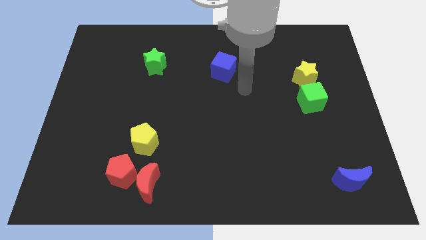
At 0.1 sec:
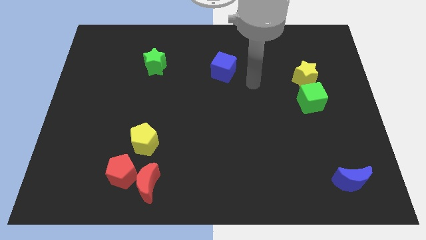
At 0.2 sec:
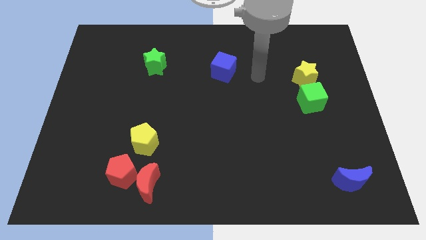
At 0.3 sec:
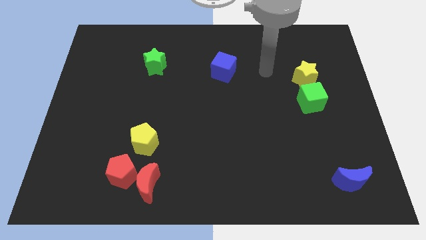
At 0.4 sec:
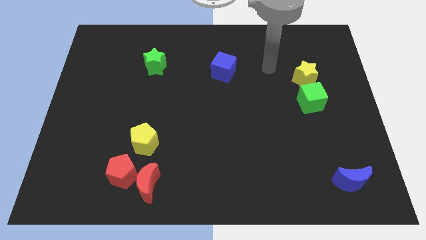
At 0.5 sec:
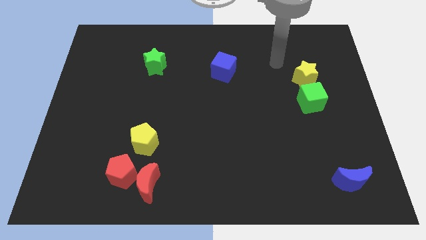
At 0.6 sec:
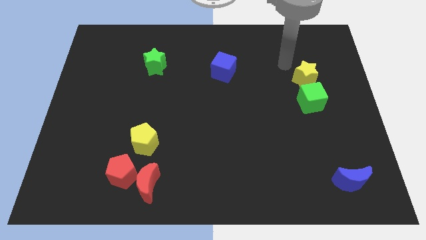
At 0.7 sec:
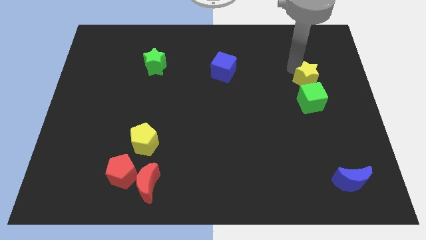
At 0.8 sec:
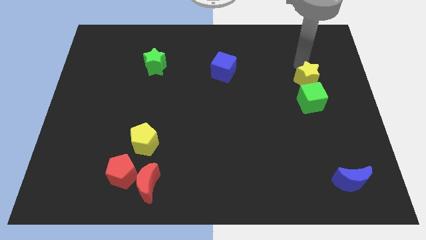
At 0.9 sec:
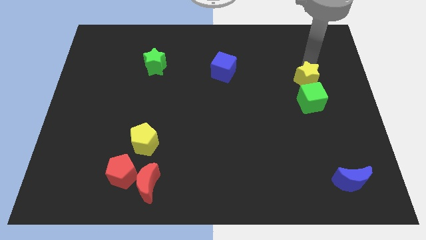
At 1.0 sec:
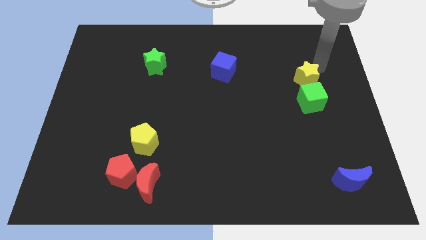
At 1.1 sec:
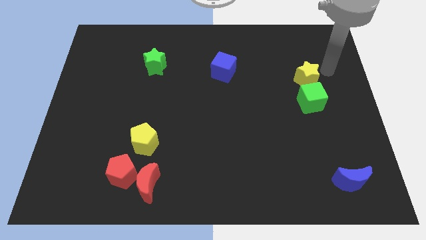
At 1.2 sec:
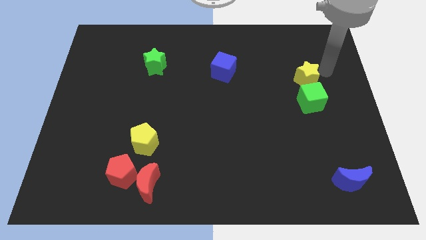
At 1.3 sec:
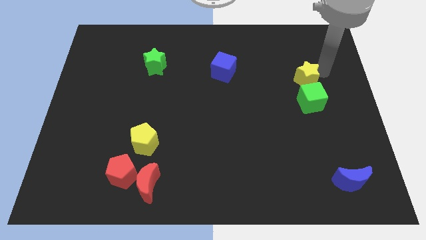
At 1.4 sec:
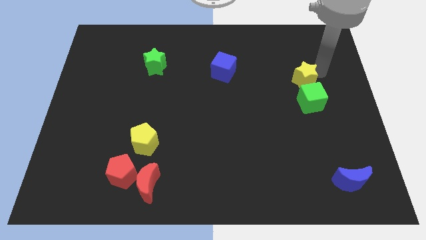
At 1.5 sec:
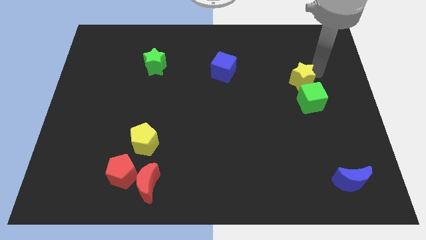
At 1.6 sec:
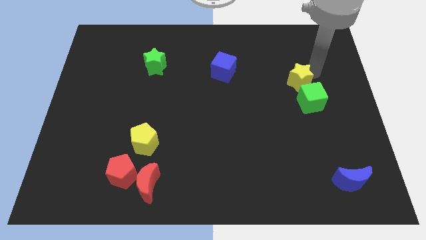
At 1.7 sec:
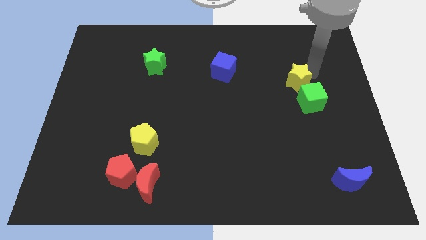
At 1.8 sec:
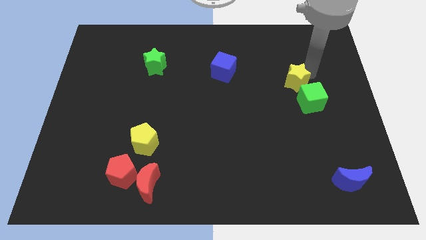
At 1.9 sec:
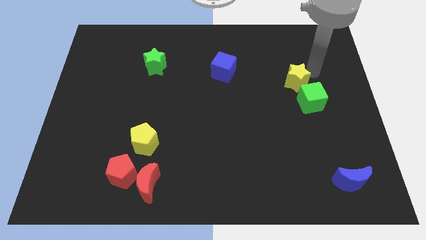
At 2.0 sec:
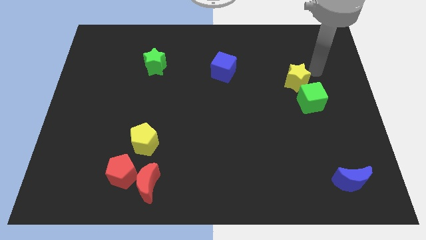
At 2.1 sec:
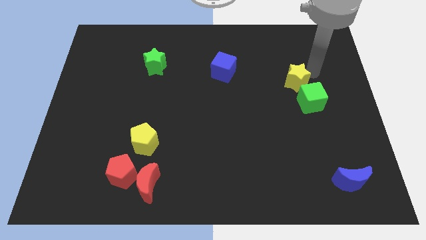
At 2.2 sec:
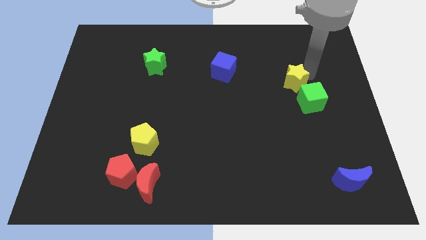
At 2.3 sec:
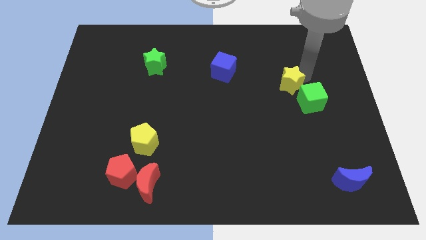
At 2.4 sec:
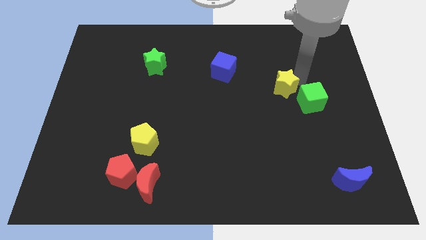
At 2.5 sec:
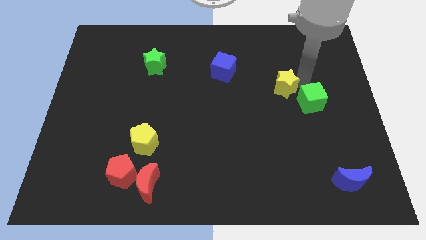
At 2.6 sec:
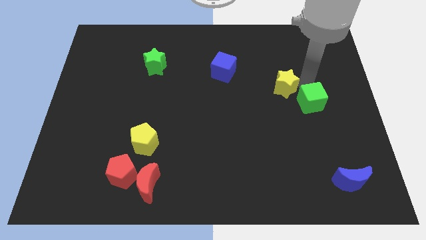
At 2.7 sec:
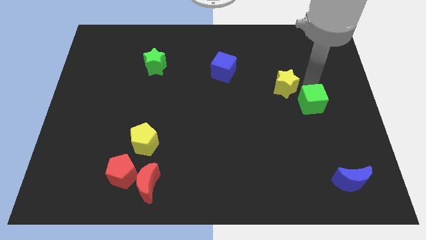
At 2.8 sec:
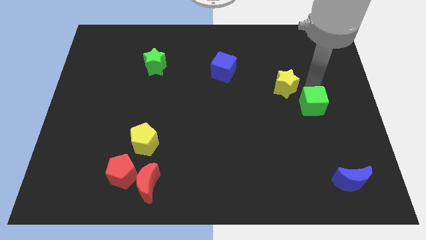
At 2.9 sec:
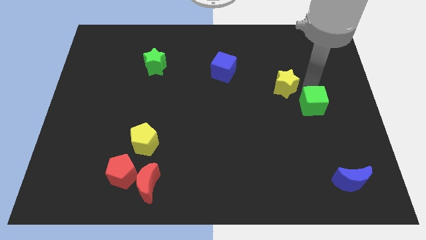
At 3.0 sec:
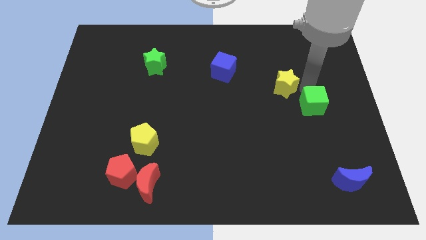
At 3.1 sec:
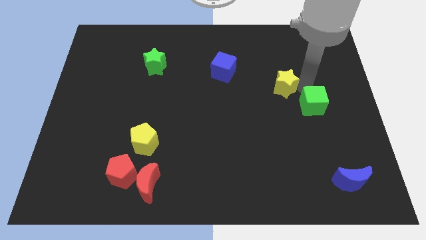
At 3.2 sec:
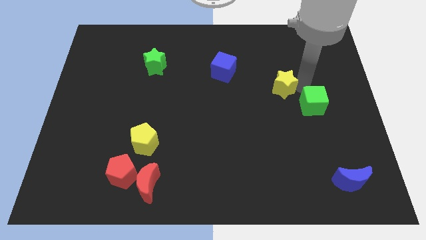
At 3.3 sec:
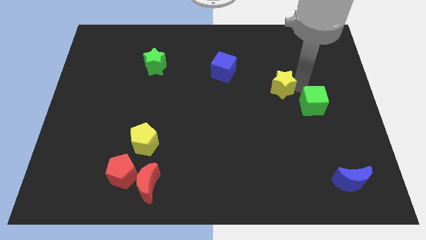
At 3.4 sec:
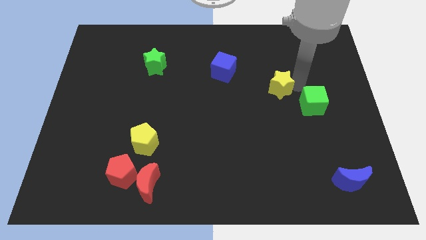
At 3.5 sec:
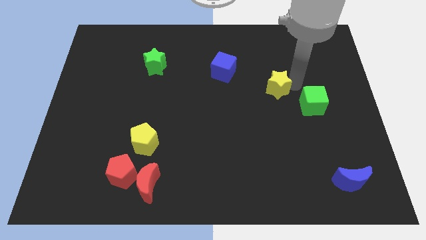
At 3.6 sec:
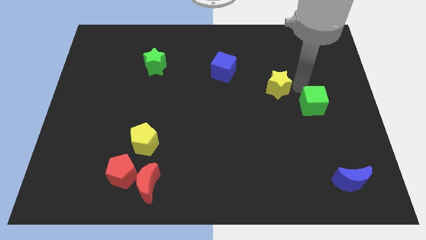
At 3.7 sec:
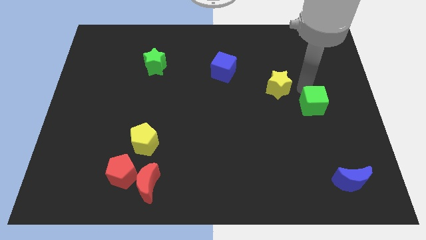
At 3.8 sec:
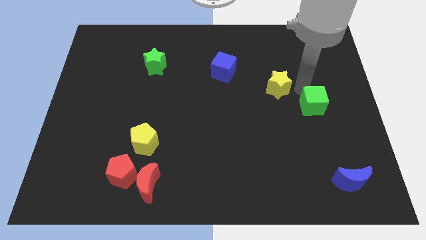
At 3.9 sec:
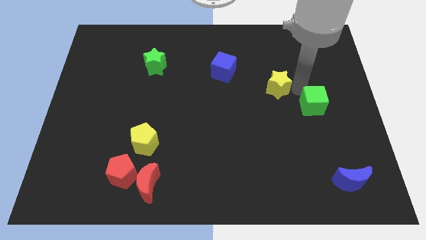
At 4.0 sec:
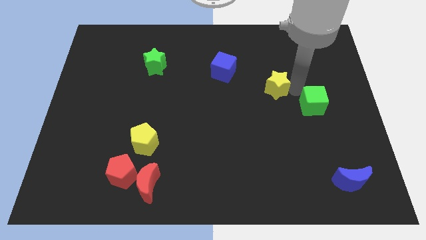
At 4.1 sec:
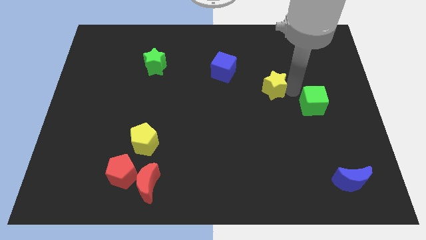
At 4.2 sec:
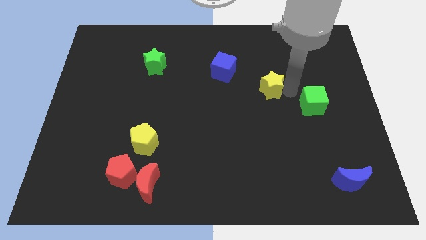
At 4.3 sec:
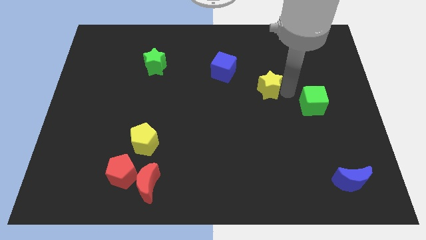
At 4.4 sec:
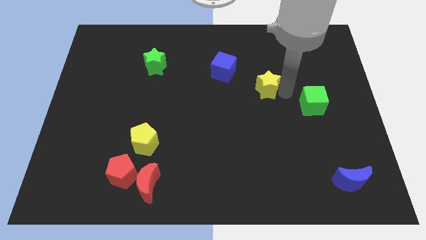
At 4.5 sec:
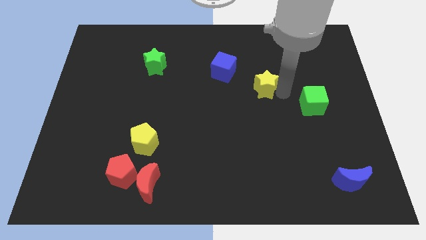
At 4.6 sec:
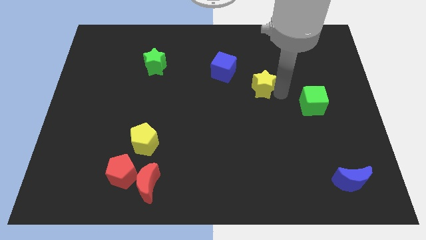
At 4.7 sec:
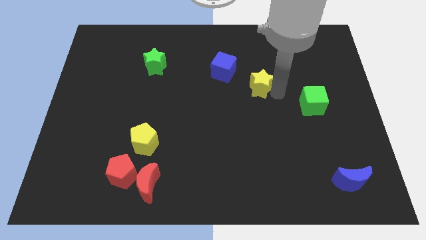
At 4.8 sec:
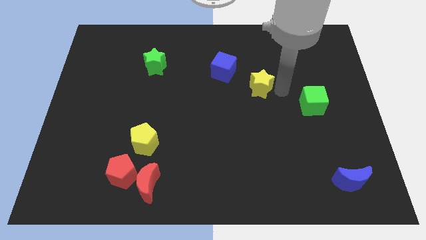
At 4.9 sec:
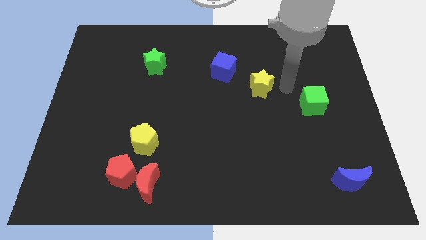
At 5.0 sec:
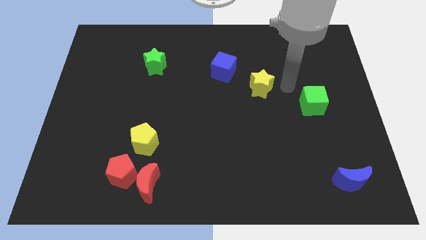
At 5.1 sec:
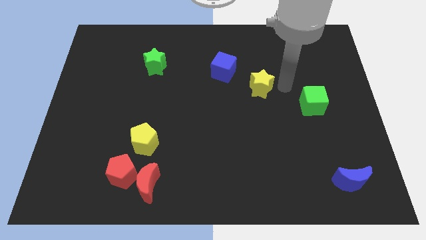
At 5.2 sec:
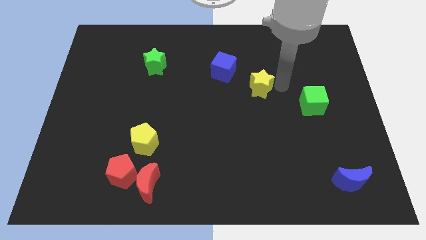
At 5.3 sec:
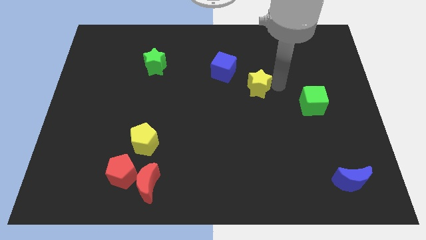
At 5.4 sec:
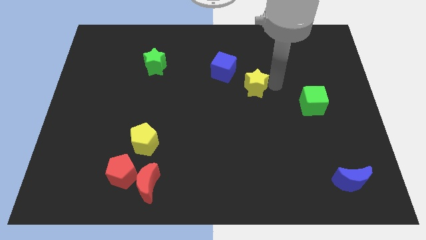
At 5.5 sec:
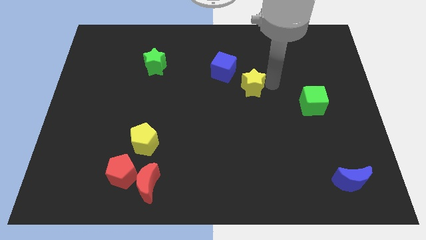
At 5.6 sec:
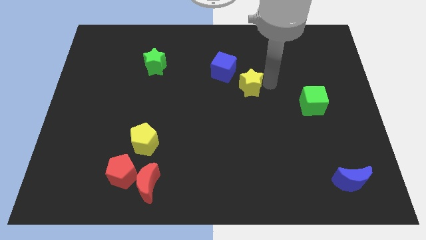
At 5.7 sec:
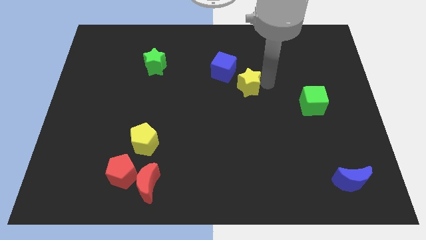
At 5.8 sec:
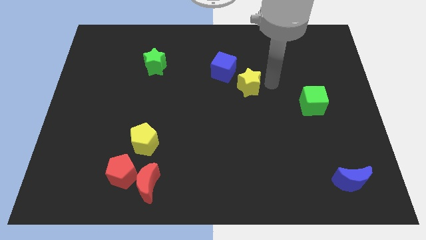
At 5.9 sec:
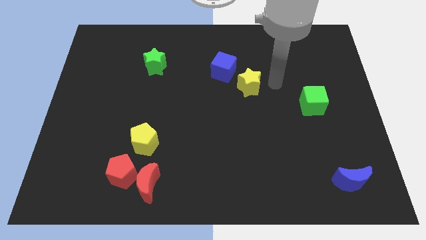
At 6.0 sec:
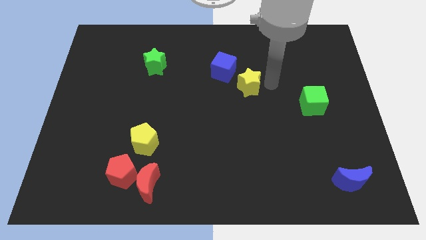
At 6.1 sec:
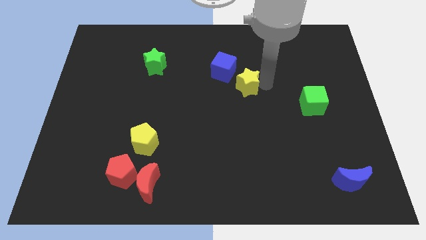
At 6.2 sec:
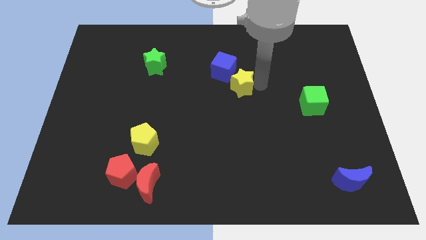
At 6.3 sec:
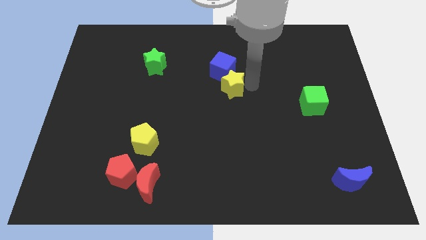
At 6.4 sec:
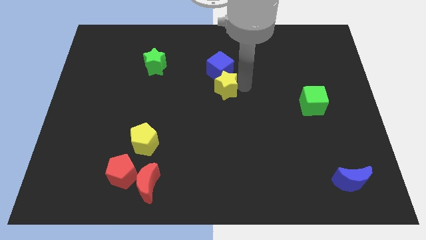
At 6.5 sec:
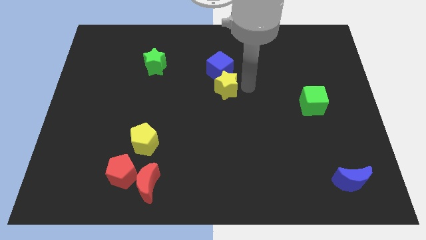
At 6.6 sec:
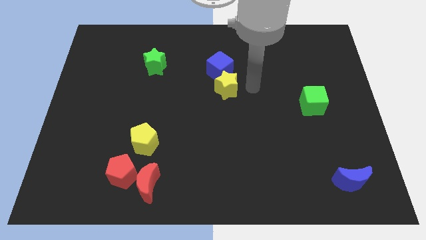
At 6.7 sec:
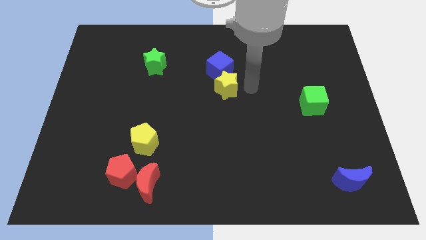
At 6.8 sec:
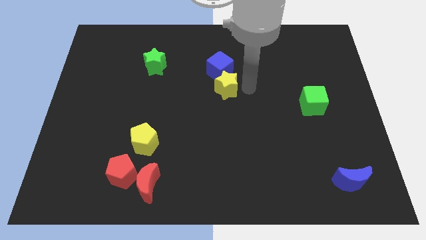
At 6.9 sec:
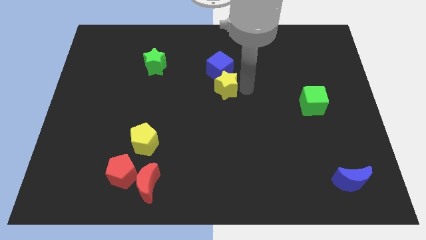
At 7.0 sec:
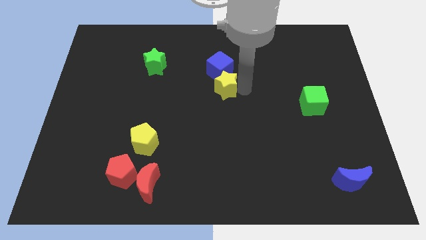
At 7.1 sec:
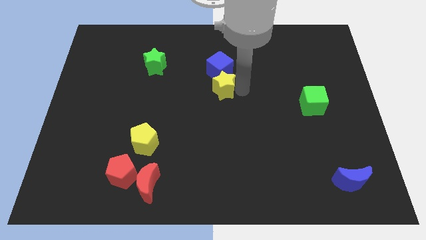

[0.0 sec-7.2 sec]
push the yellow star to the left

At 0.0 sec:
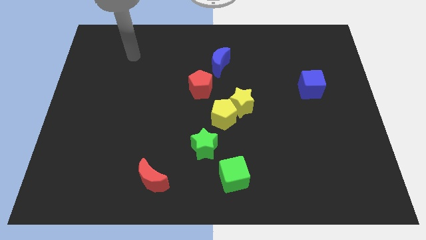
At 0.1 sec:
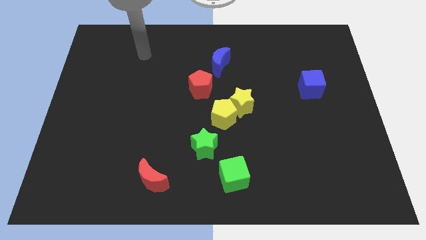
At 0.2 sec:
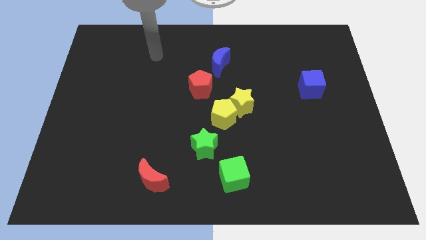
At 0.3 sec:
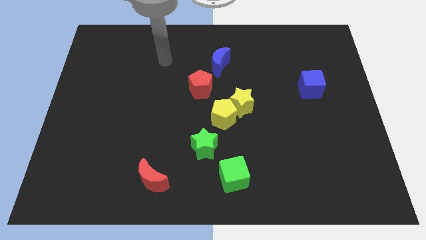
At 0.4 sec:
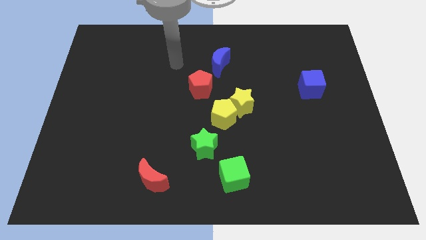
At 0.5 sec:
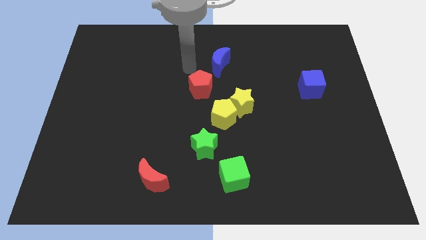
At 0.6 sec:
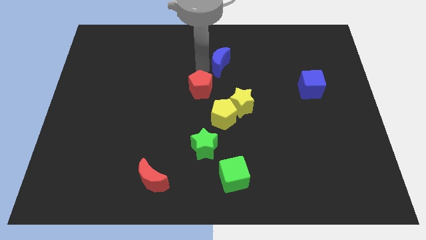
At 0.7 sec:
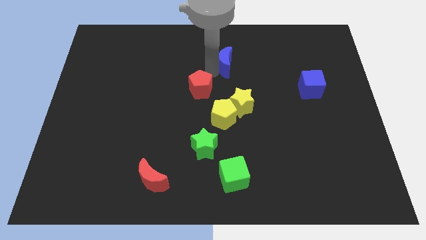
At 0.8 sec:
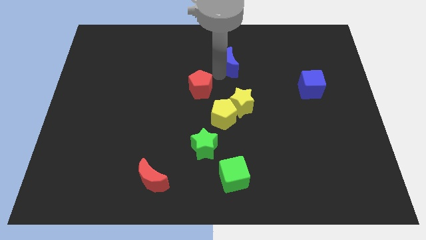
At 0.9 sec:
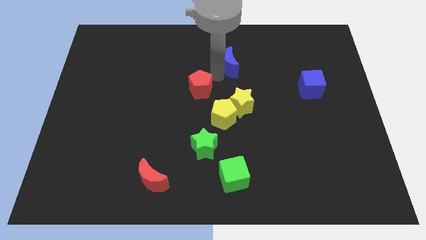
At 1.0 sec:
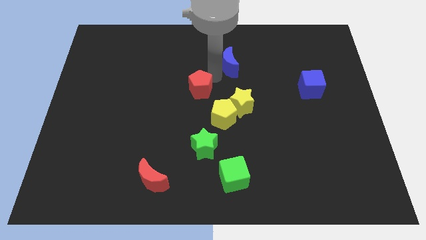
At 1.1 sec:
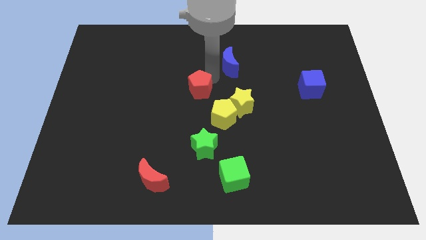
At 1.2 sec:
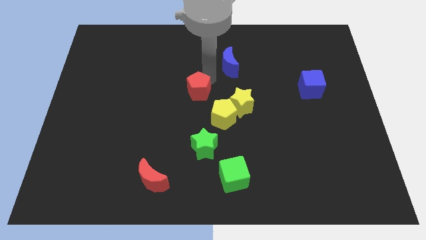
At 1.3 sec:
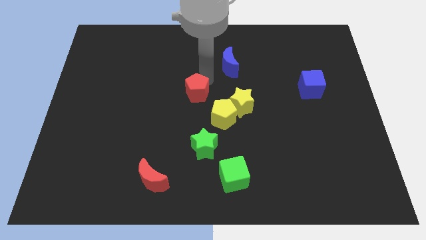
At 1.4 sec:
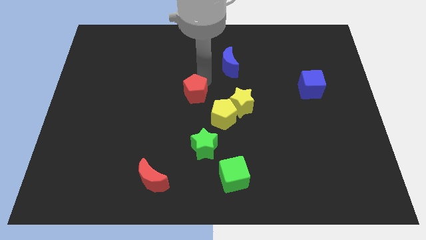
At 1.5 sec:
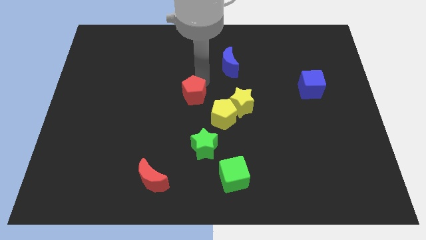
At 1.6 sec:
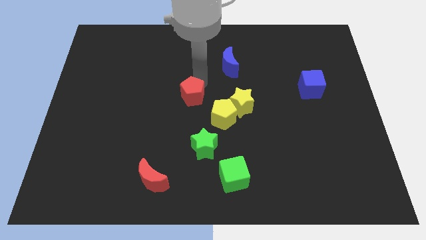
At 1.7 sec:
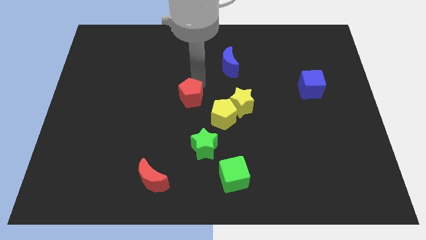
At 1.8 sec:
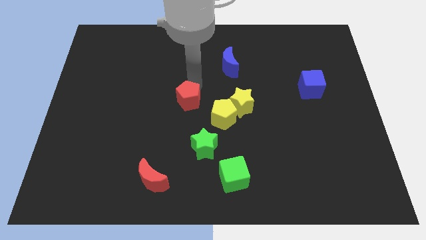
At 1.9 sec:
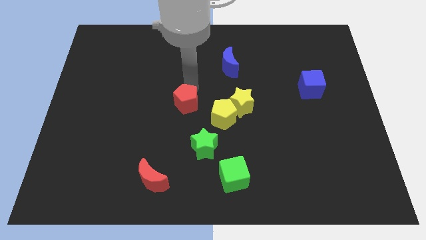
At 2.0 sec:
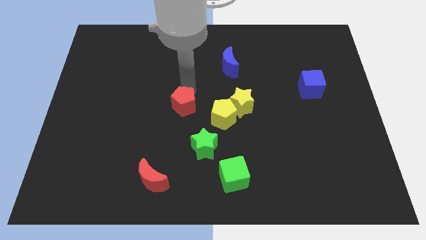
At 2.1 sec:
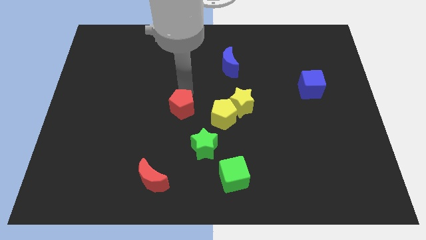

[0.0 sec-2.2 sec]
slightly push the red pentagon downwards and then to the left
